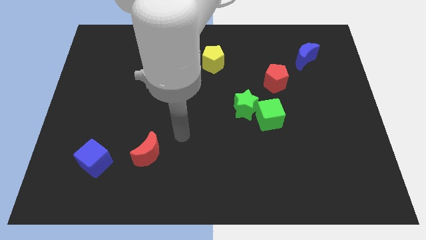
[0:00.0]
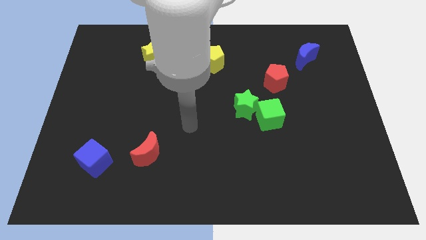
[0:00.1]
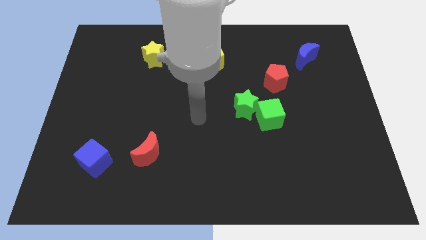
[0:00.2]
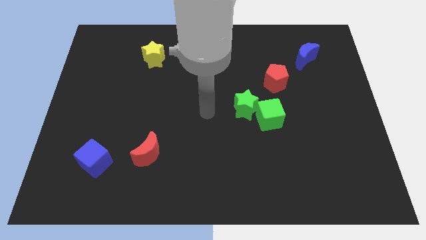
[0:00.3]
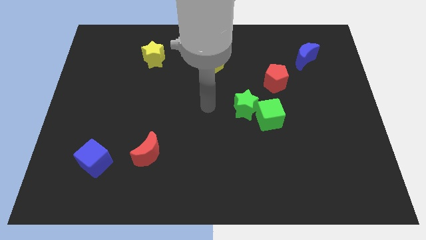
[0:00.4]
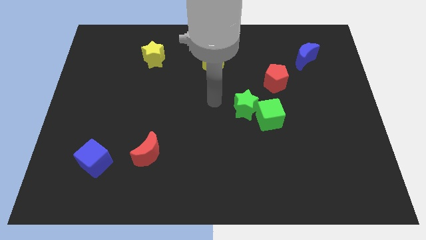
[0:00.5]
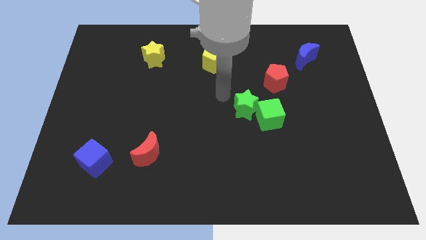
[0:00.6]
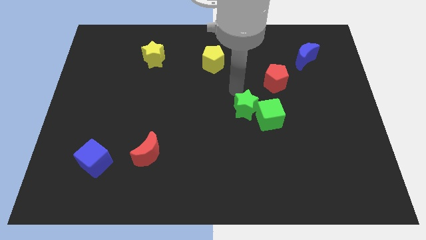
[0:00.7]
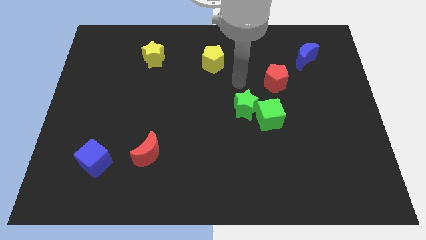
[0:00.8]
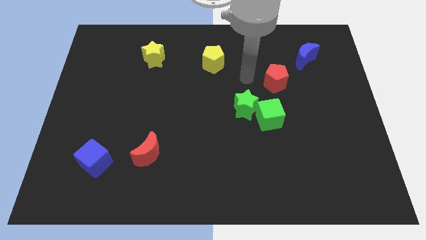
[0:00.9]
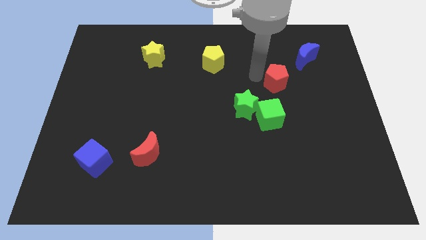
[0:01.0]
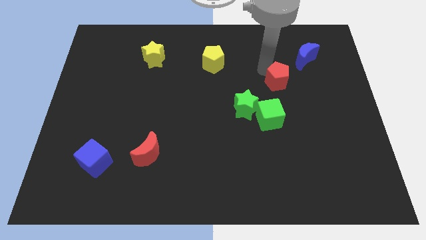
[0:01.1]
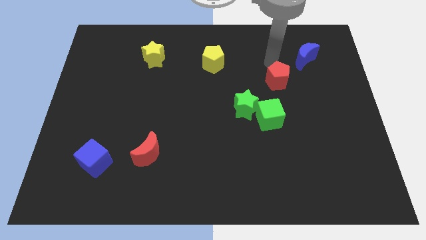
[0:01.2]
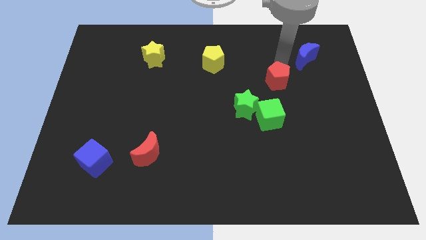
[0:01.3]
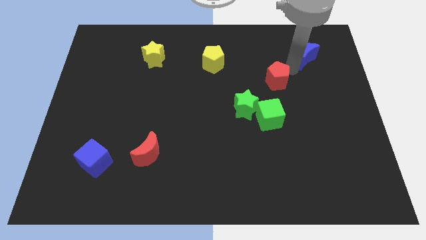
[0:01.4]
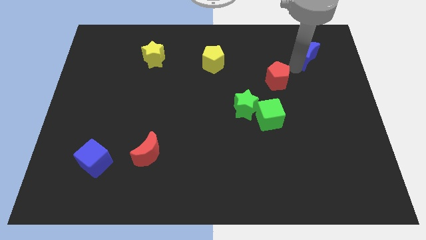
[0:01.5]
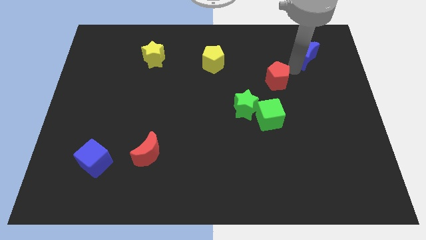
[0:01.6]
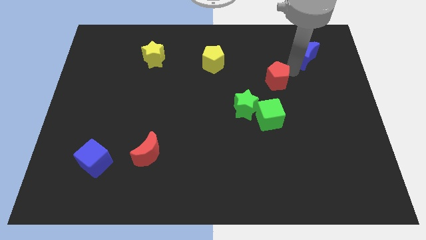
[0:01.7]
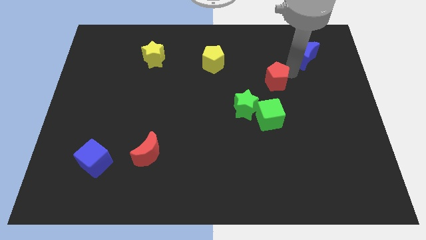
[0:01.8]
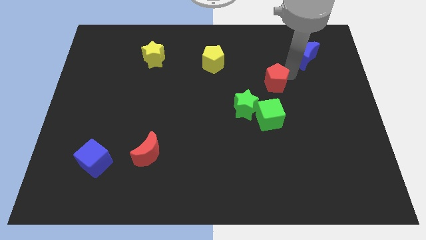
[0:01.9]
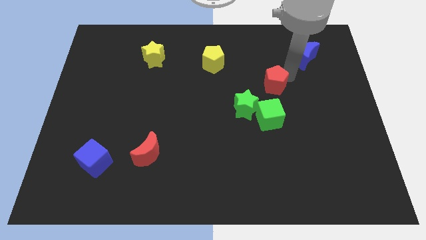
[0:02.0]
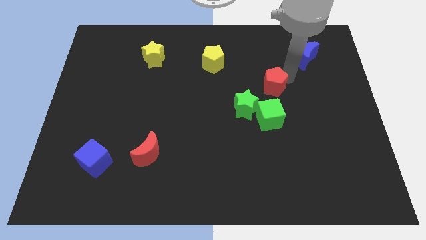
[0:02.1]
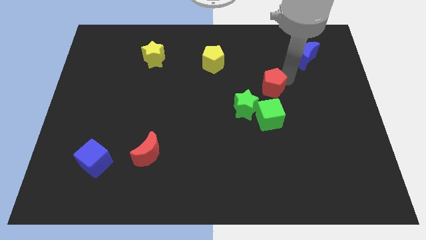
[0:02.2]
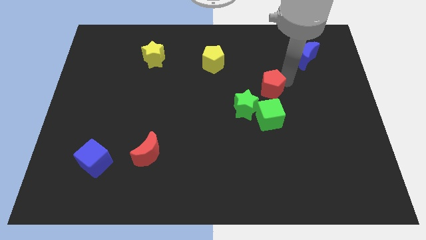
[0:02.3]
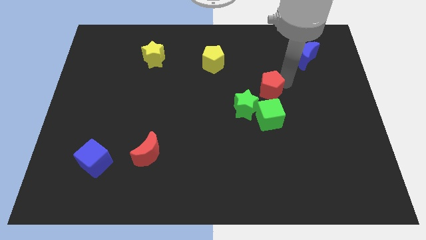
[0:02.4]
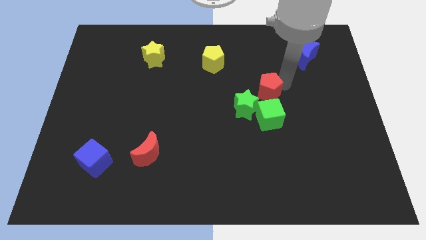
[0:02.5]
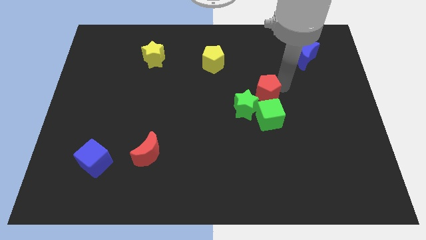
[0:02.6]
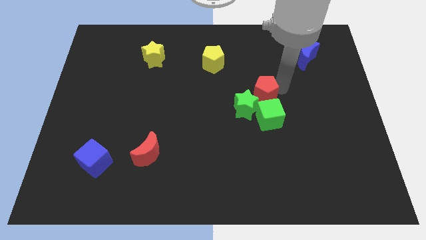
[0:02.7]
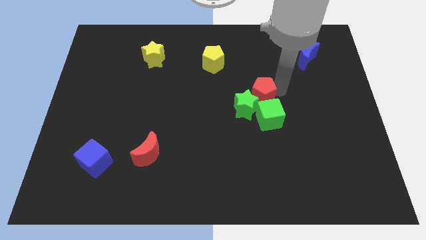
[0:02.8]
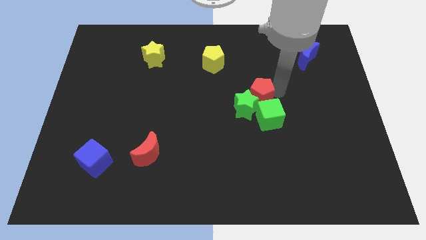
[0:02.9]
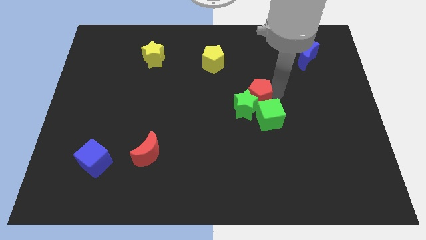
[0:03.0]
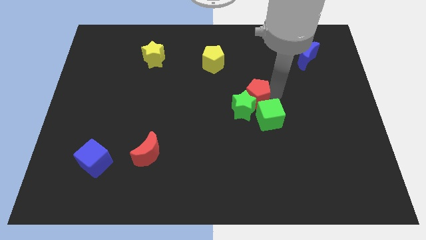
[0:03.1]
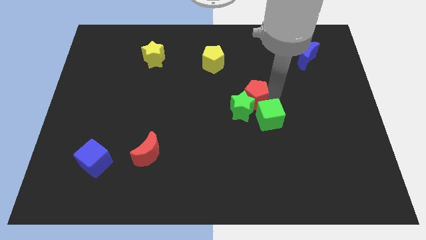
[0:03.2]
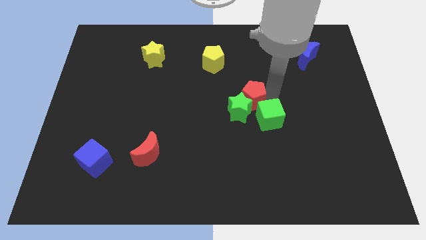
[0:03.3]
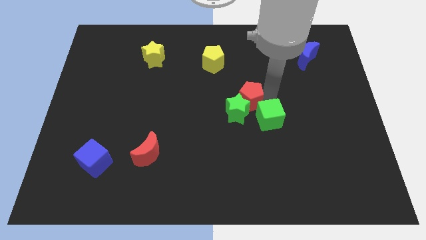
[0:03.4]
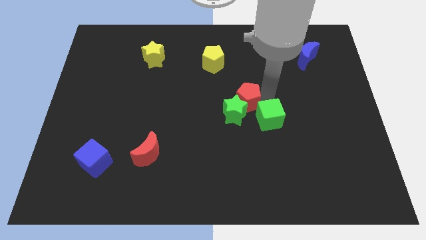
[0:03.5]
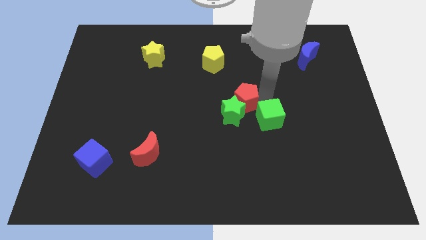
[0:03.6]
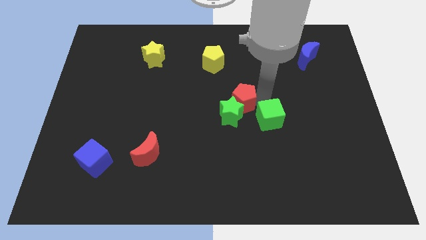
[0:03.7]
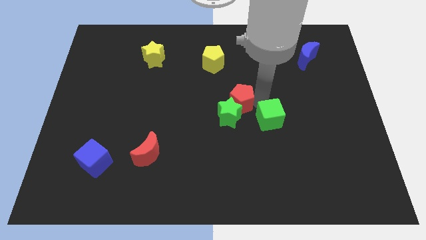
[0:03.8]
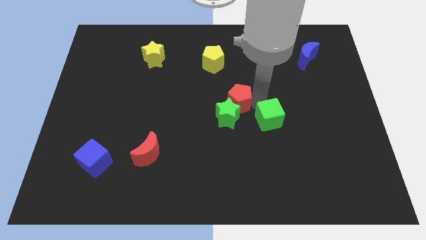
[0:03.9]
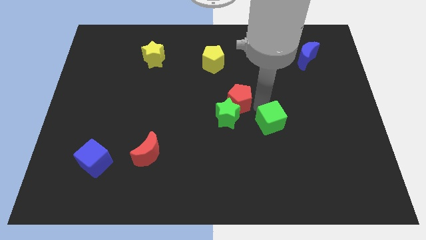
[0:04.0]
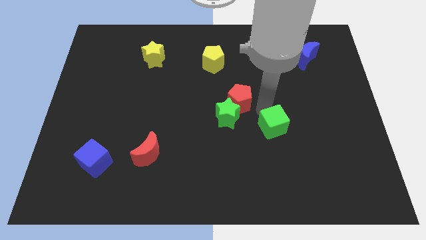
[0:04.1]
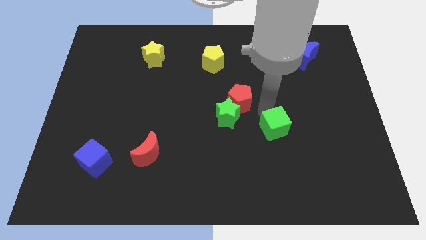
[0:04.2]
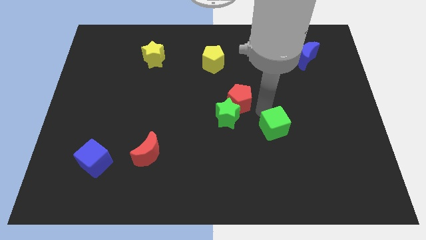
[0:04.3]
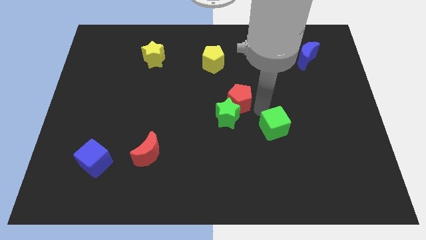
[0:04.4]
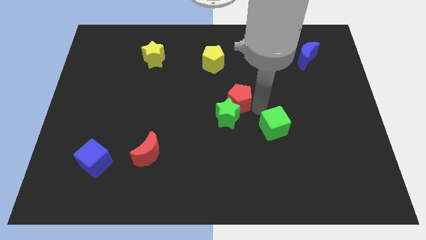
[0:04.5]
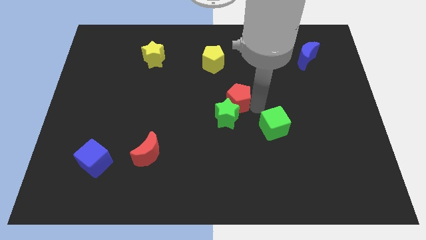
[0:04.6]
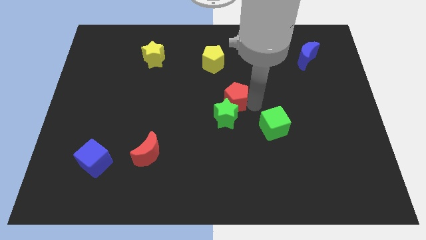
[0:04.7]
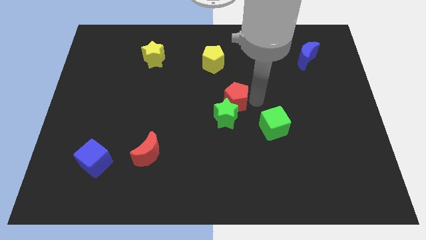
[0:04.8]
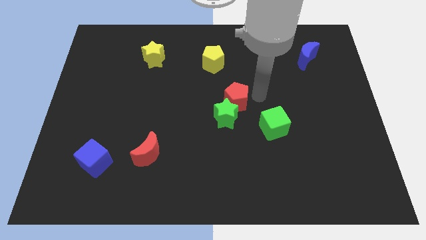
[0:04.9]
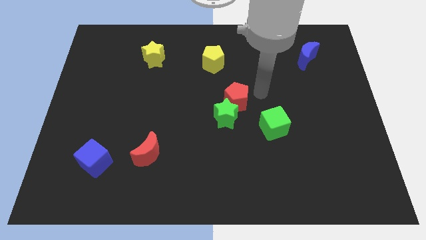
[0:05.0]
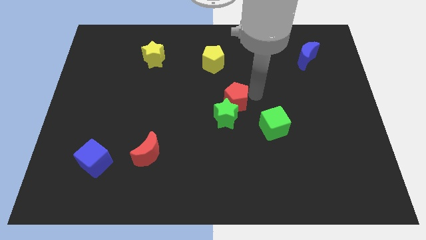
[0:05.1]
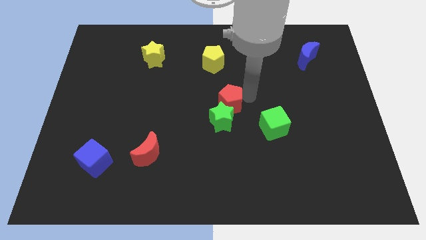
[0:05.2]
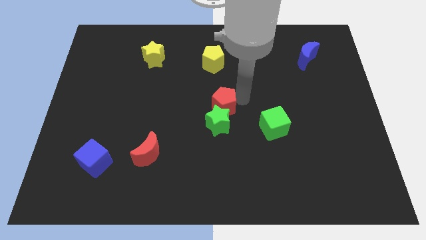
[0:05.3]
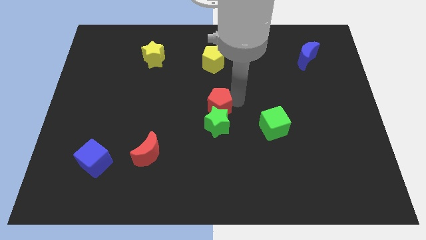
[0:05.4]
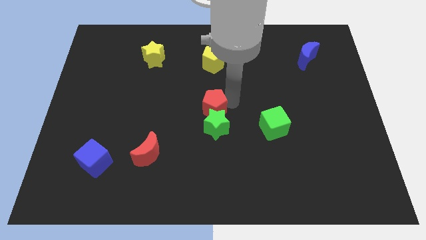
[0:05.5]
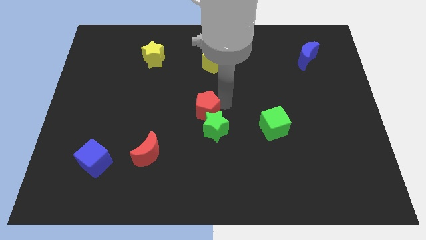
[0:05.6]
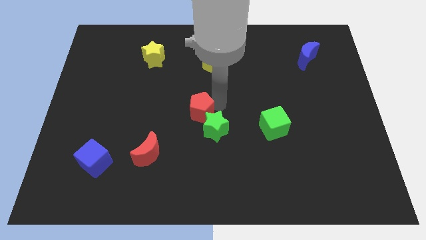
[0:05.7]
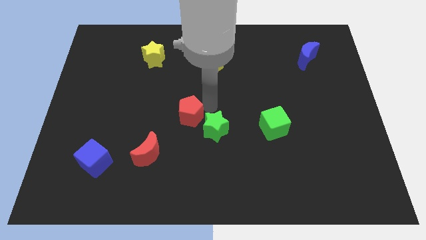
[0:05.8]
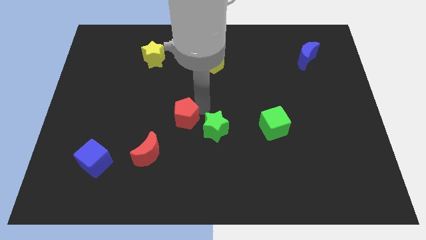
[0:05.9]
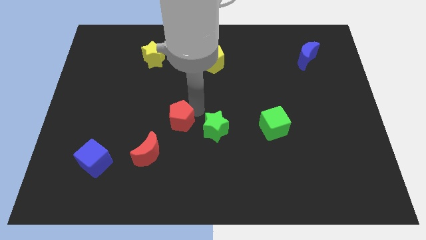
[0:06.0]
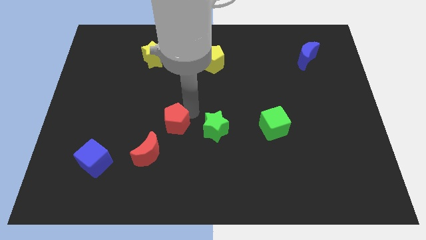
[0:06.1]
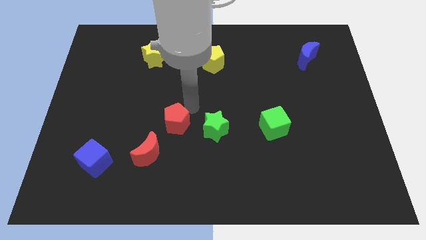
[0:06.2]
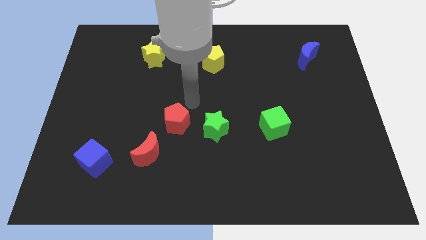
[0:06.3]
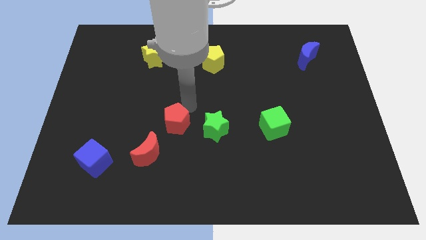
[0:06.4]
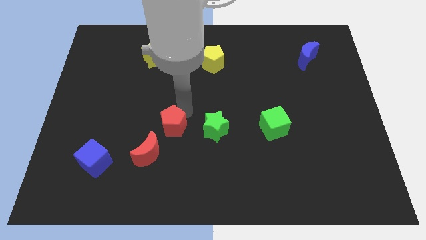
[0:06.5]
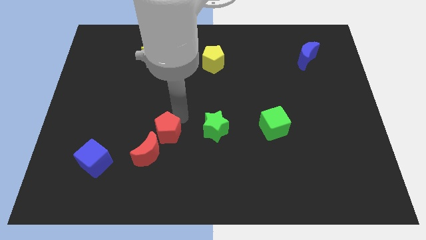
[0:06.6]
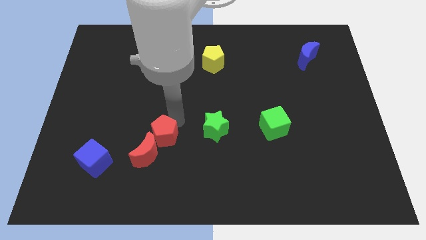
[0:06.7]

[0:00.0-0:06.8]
push the red pentagon to the red moon

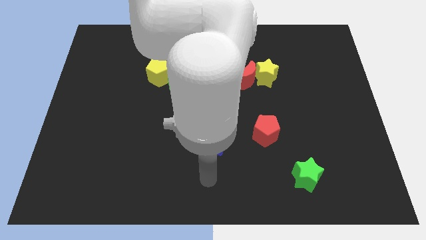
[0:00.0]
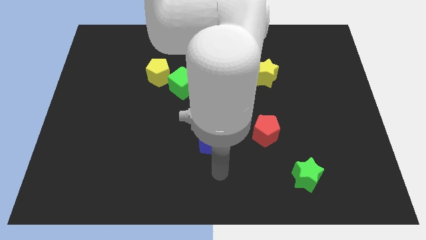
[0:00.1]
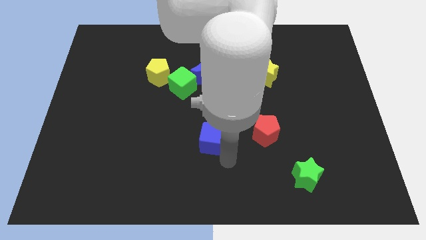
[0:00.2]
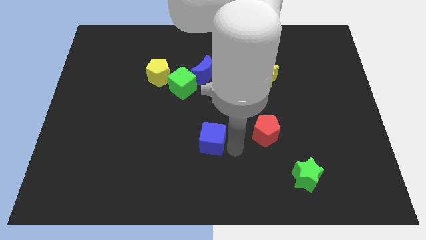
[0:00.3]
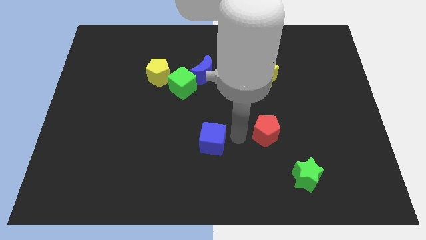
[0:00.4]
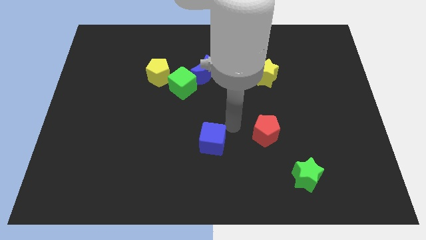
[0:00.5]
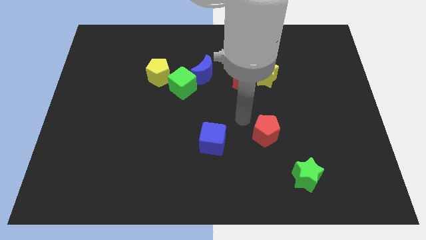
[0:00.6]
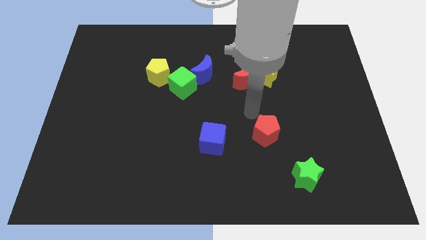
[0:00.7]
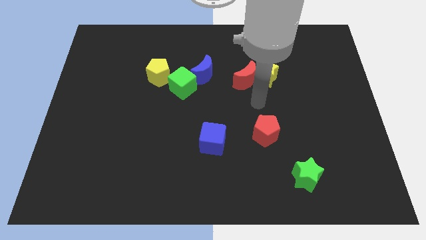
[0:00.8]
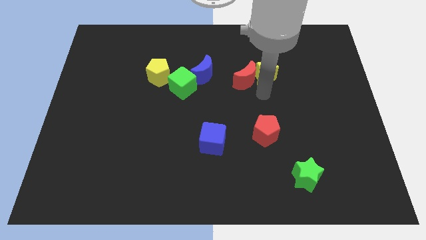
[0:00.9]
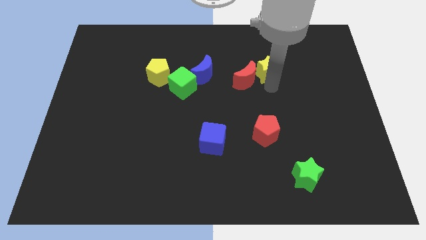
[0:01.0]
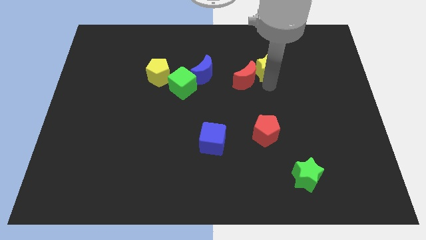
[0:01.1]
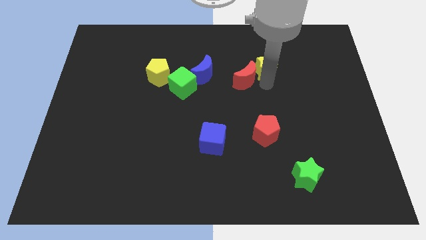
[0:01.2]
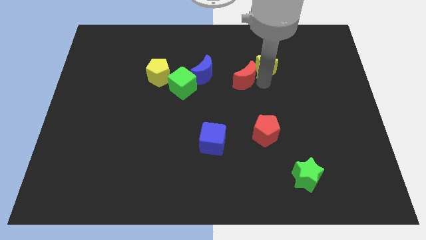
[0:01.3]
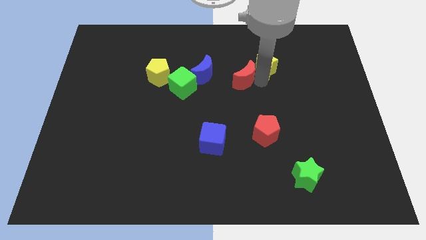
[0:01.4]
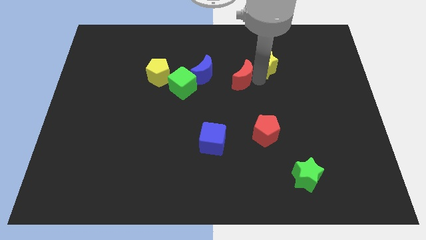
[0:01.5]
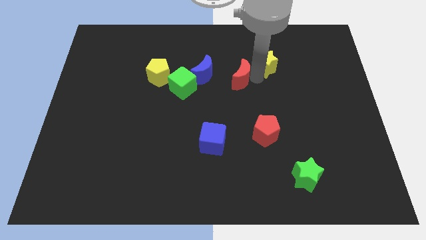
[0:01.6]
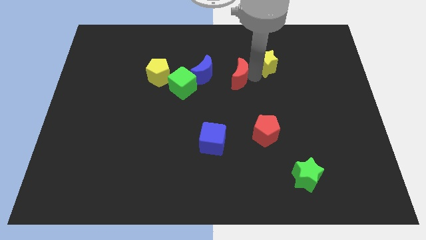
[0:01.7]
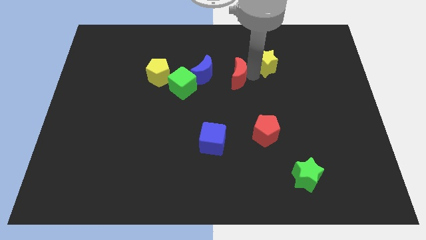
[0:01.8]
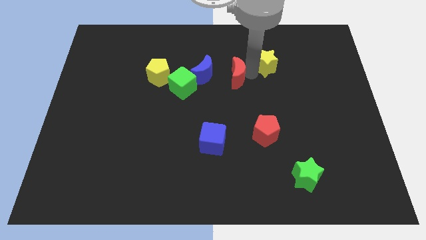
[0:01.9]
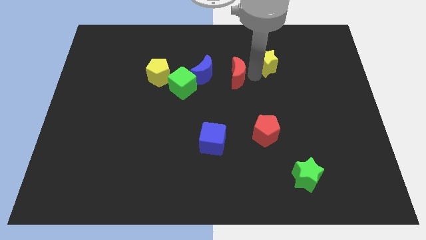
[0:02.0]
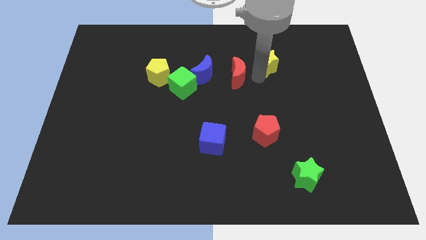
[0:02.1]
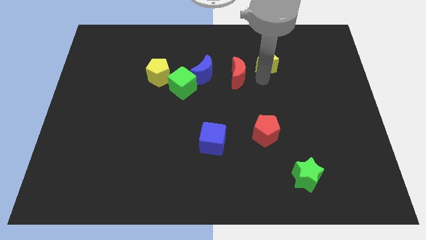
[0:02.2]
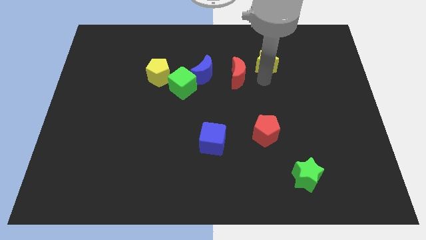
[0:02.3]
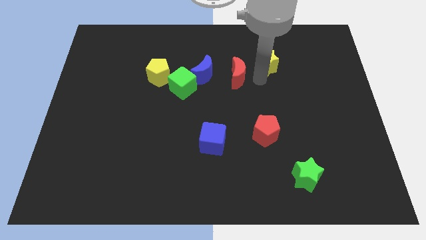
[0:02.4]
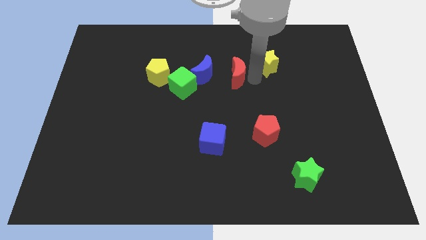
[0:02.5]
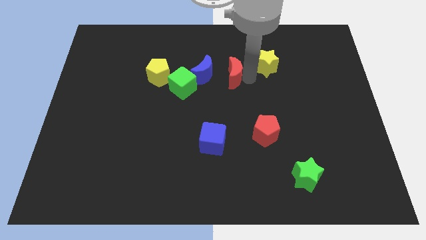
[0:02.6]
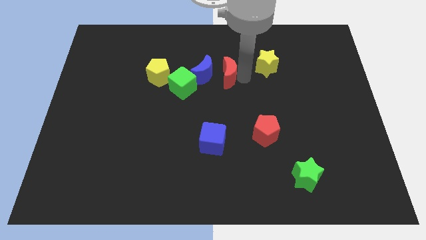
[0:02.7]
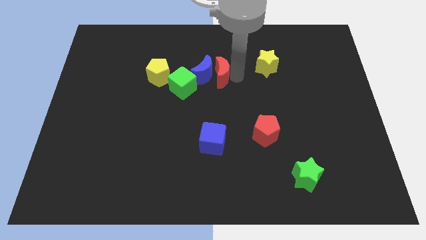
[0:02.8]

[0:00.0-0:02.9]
push the red moon to the blue moon
